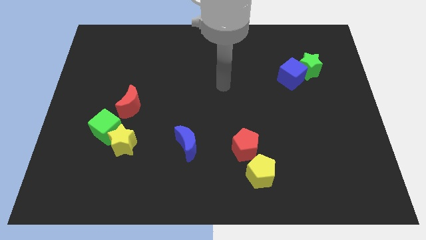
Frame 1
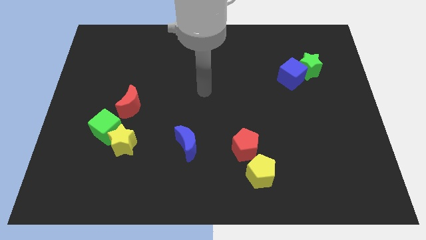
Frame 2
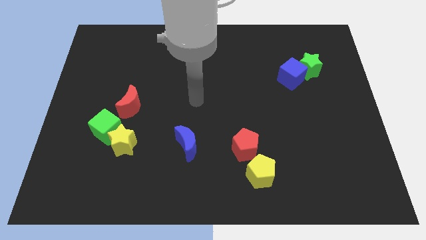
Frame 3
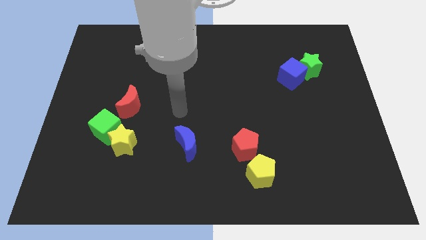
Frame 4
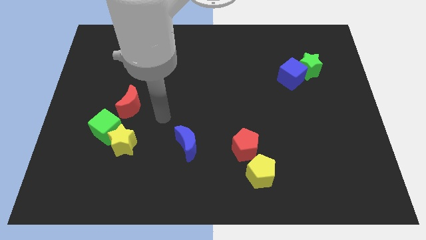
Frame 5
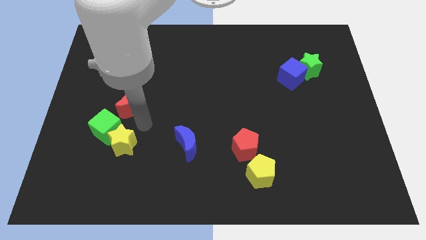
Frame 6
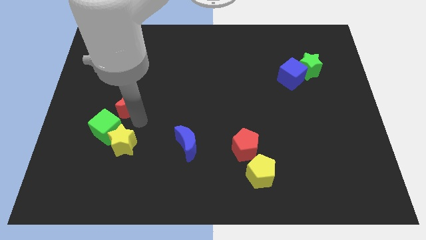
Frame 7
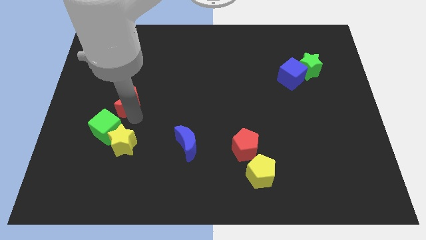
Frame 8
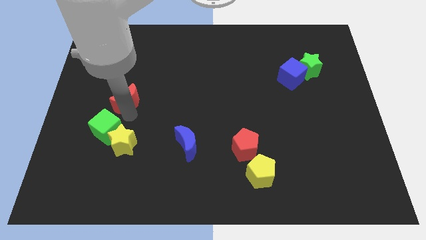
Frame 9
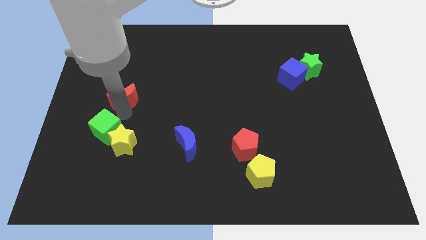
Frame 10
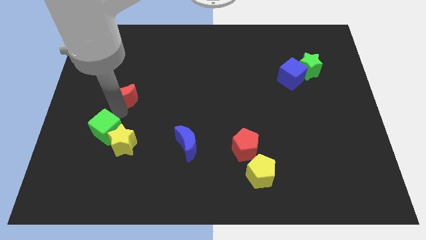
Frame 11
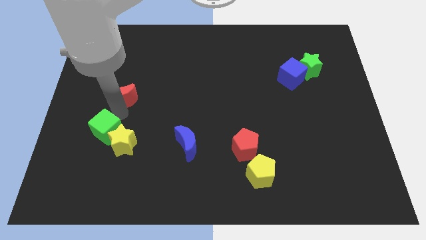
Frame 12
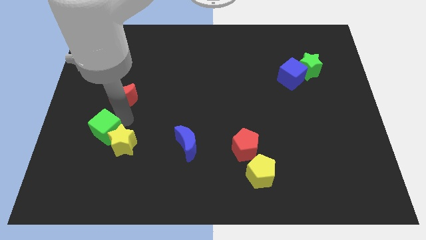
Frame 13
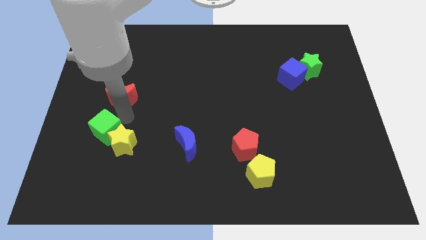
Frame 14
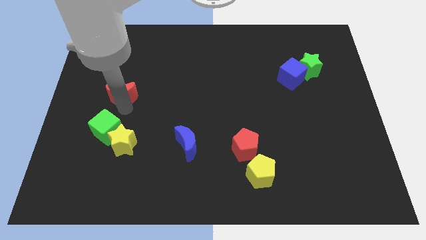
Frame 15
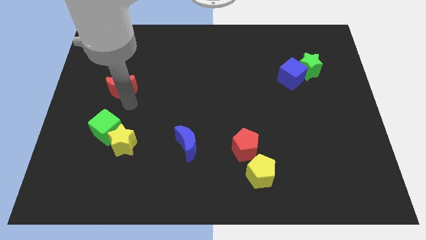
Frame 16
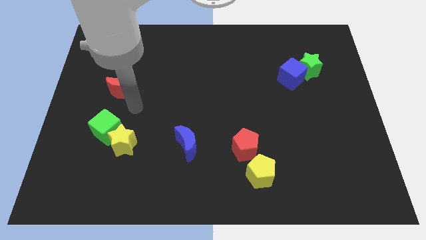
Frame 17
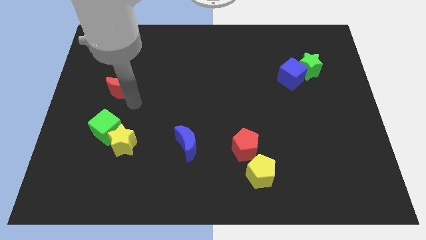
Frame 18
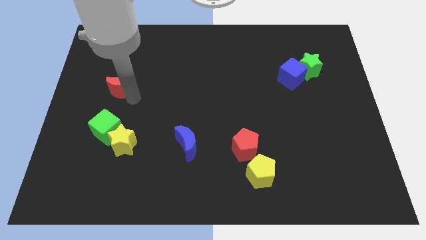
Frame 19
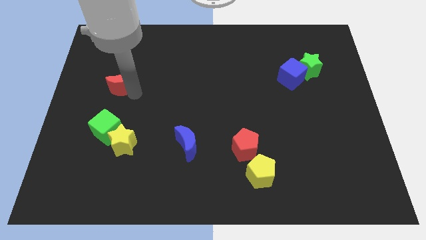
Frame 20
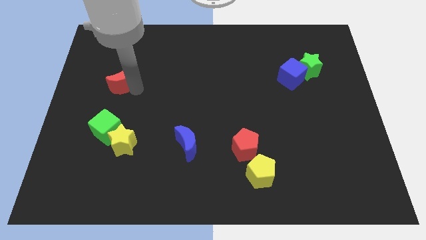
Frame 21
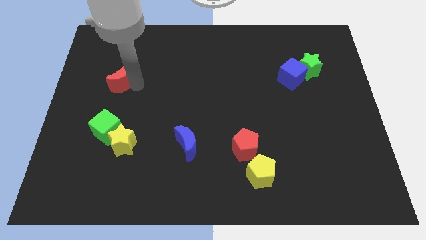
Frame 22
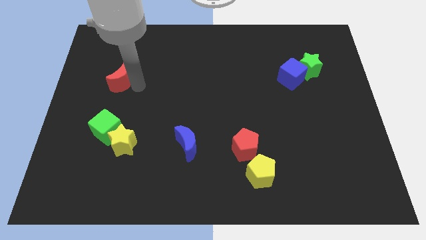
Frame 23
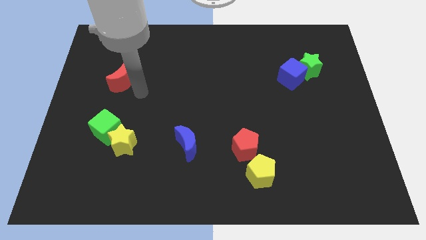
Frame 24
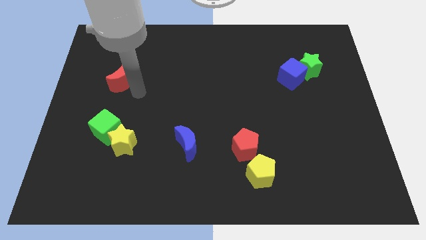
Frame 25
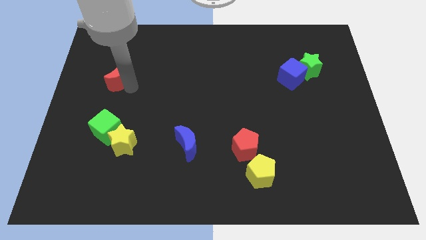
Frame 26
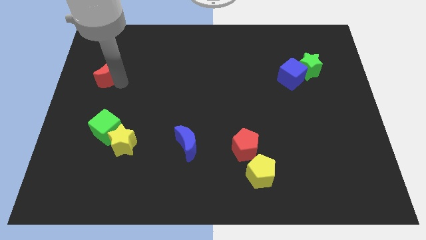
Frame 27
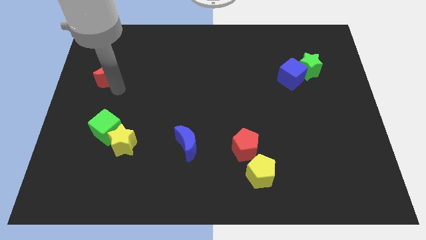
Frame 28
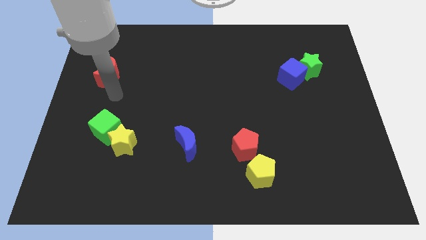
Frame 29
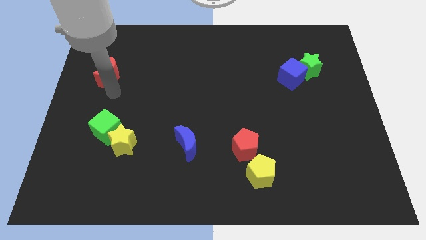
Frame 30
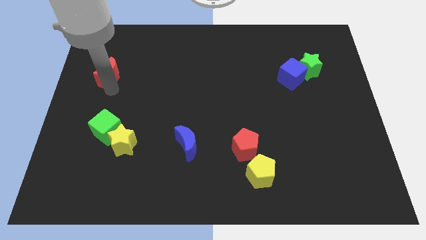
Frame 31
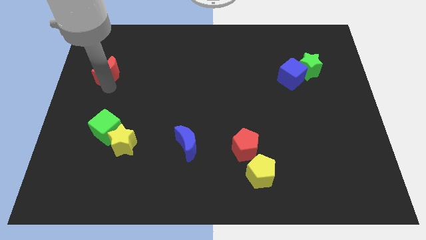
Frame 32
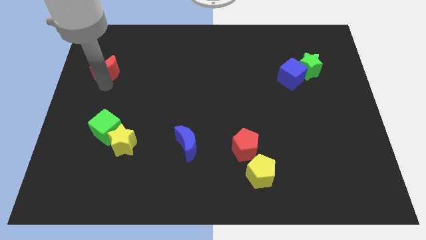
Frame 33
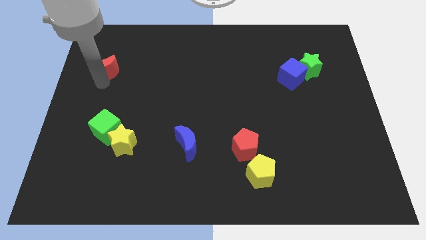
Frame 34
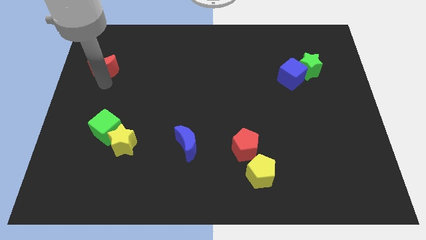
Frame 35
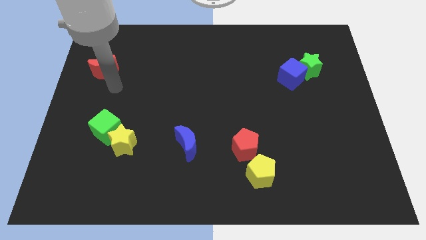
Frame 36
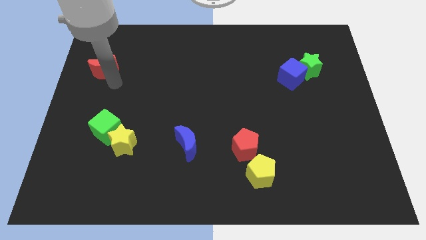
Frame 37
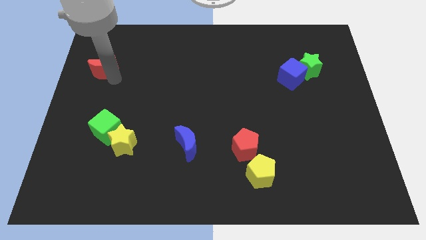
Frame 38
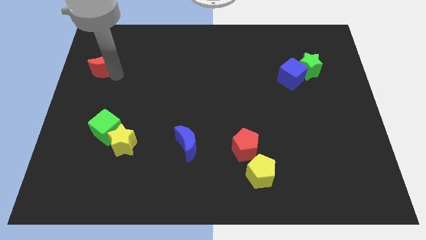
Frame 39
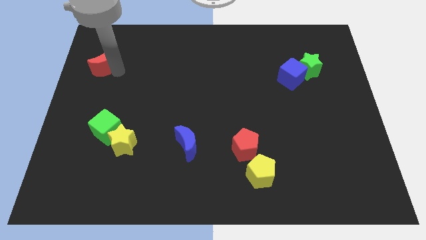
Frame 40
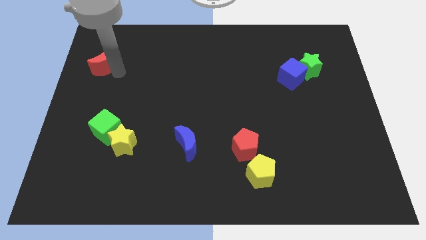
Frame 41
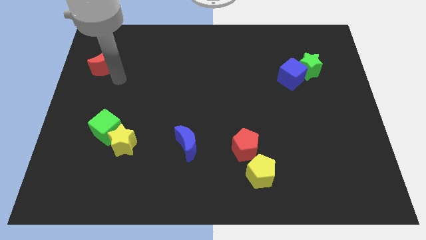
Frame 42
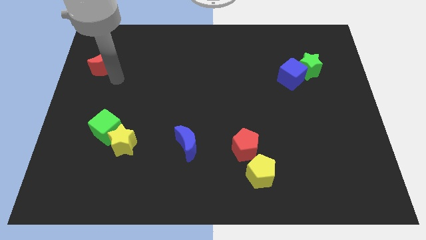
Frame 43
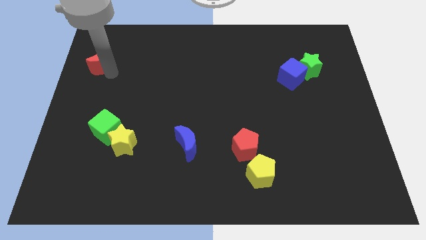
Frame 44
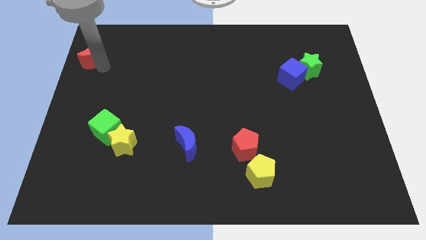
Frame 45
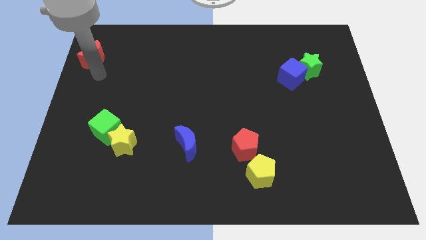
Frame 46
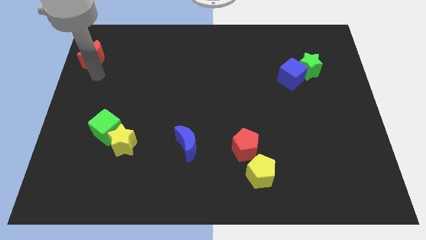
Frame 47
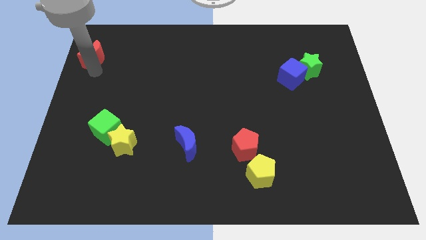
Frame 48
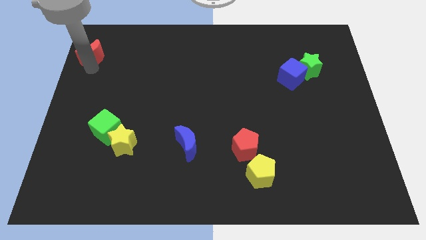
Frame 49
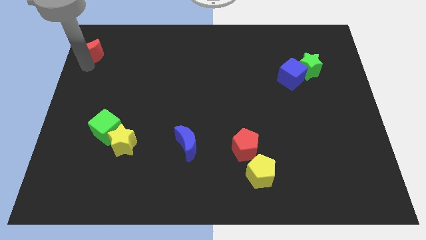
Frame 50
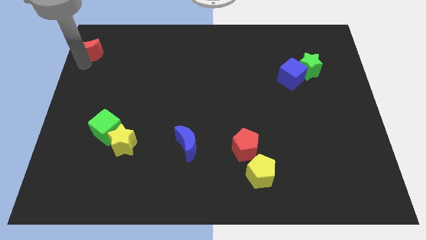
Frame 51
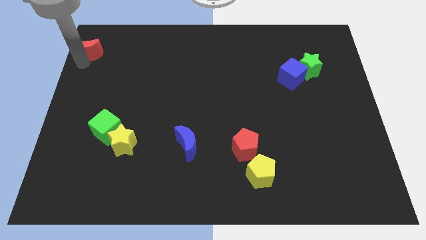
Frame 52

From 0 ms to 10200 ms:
slide the red moon to the top left

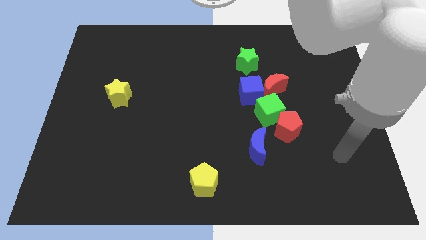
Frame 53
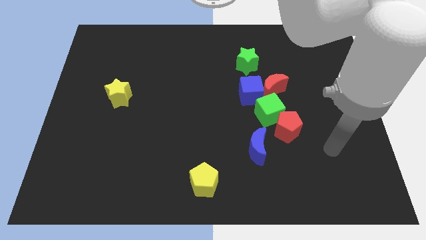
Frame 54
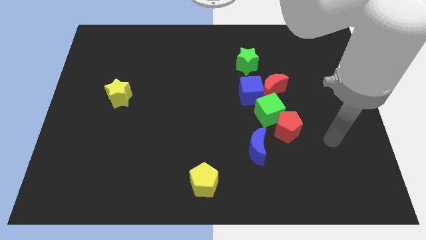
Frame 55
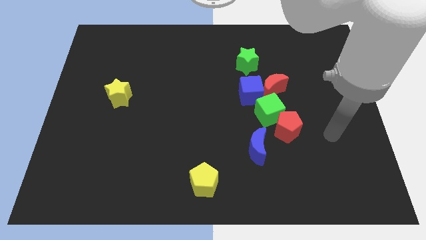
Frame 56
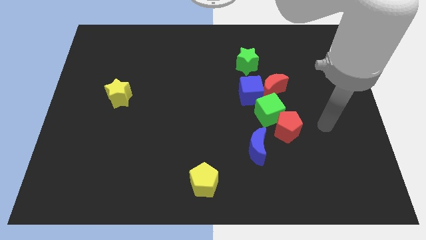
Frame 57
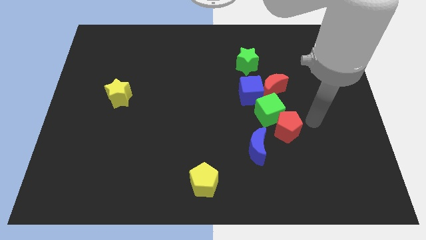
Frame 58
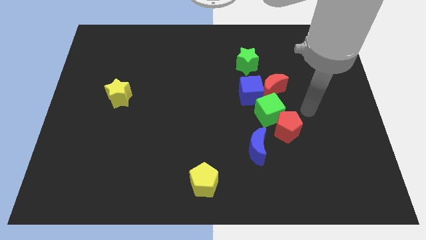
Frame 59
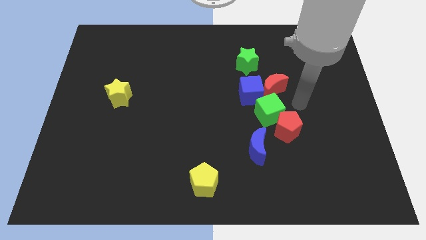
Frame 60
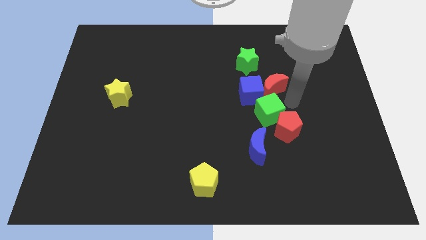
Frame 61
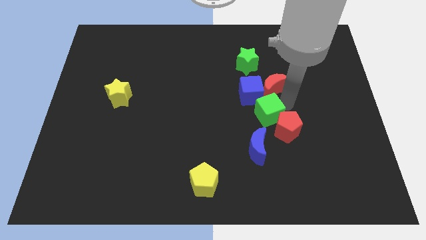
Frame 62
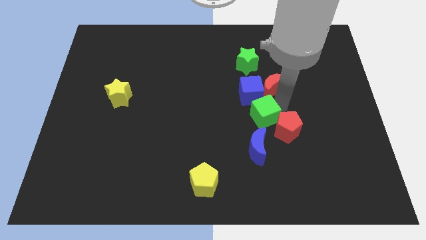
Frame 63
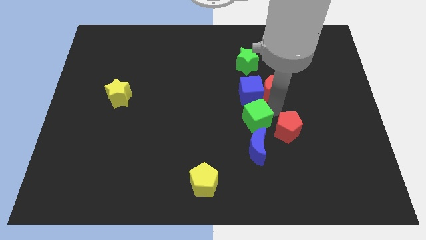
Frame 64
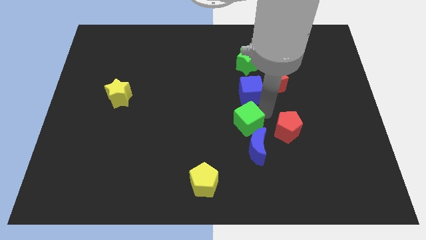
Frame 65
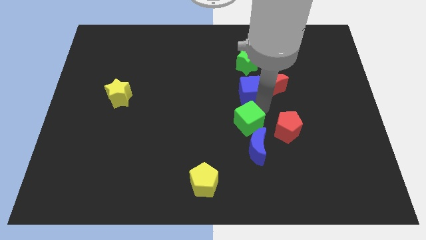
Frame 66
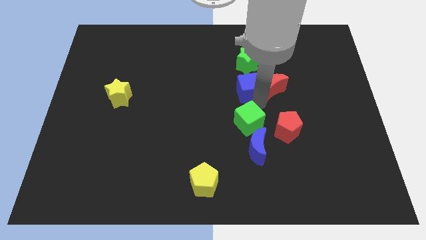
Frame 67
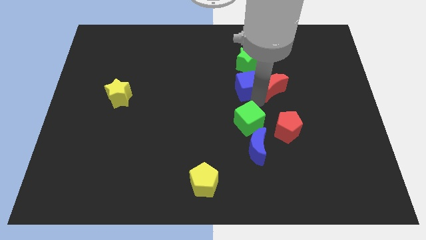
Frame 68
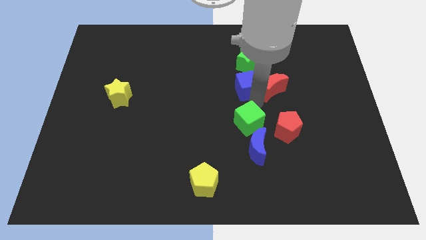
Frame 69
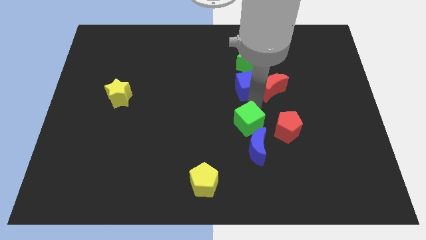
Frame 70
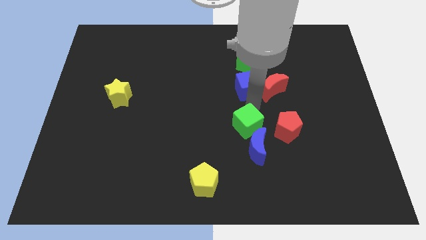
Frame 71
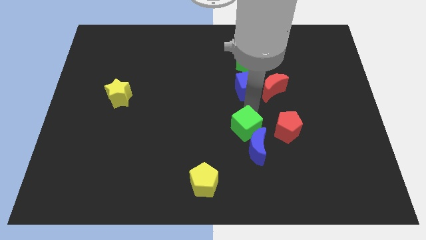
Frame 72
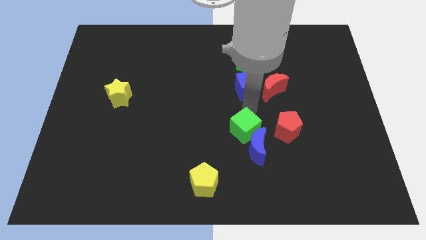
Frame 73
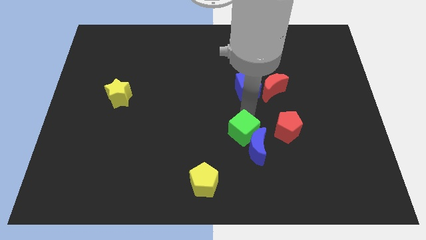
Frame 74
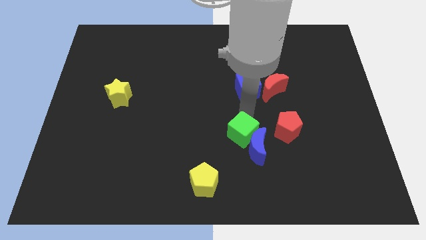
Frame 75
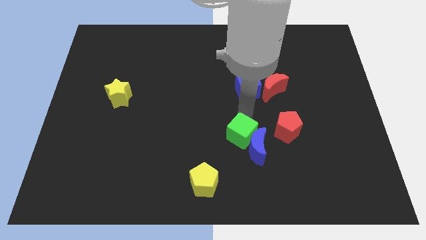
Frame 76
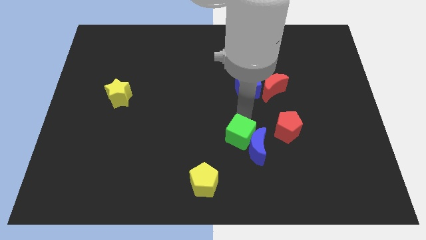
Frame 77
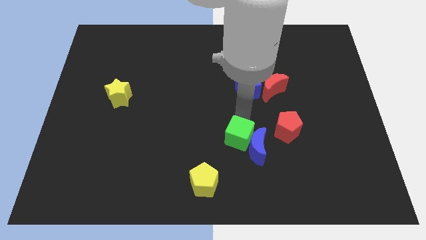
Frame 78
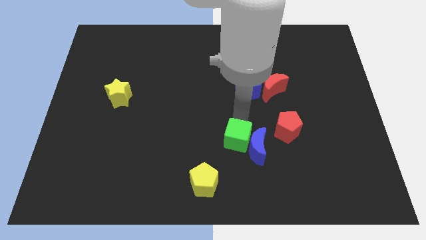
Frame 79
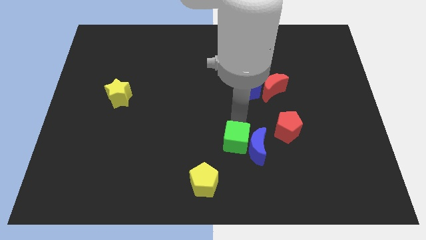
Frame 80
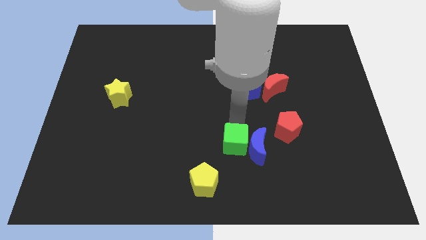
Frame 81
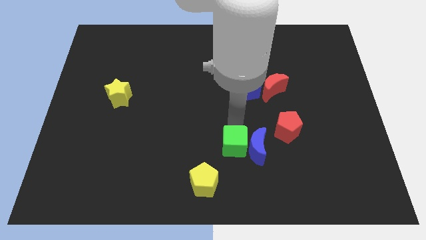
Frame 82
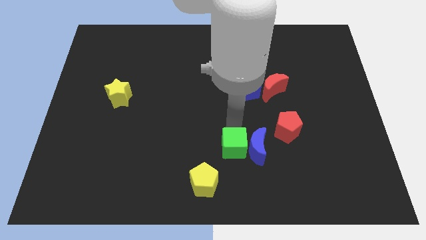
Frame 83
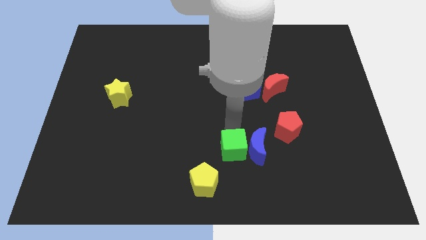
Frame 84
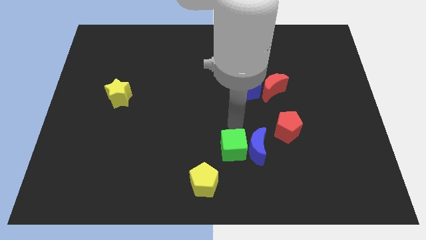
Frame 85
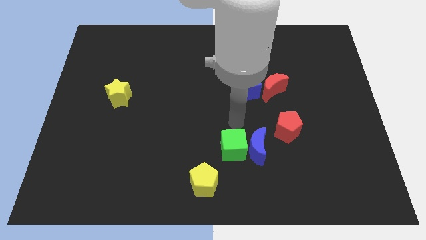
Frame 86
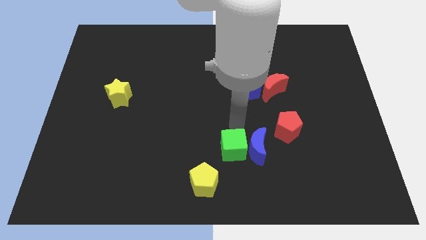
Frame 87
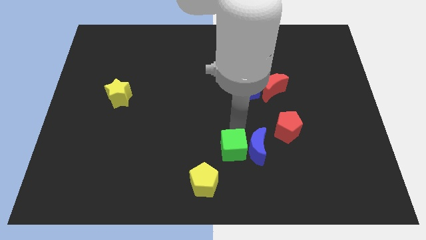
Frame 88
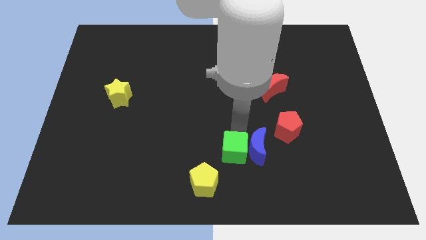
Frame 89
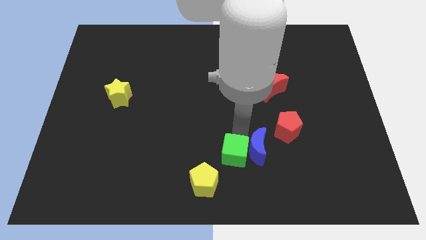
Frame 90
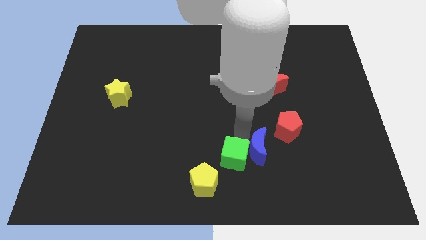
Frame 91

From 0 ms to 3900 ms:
put the green cube to the bottom
